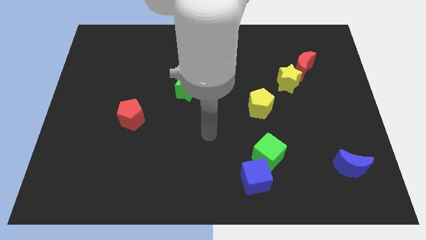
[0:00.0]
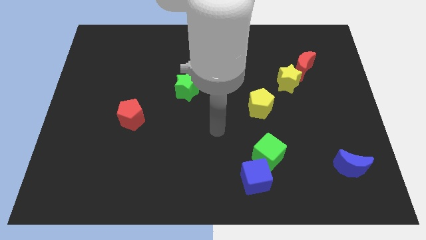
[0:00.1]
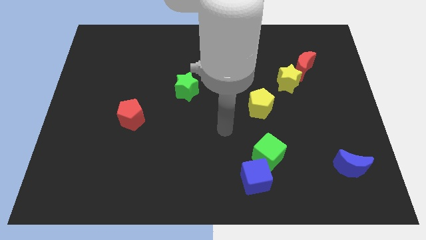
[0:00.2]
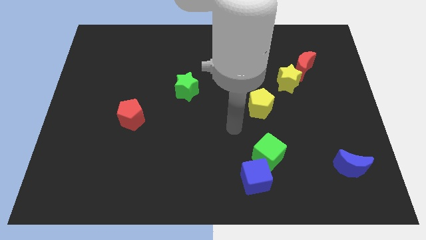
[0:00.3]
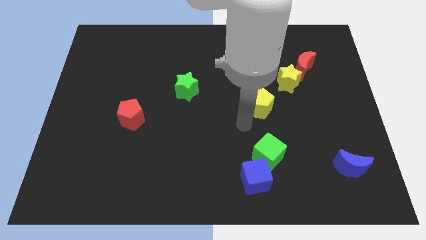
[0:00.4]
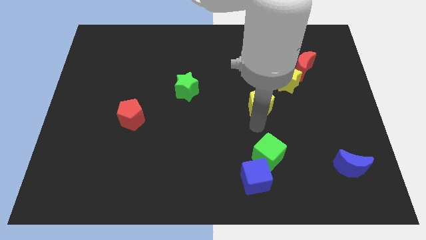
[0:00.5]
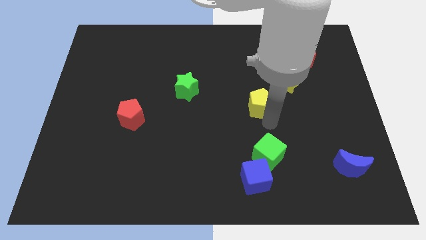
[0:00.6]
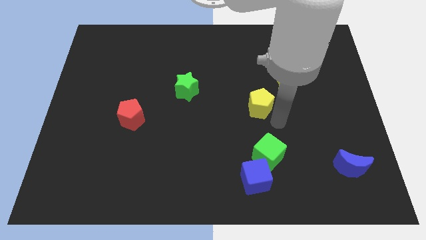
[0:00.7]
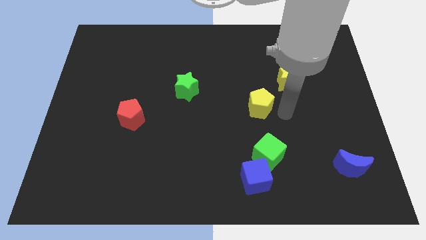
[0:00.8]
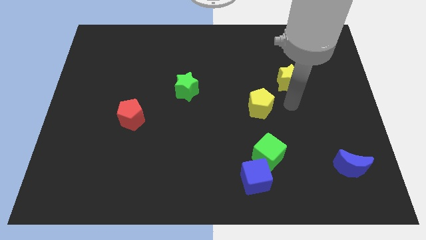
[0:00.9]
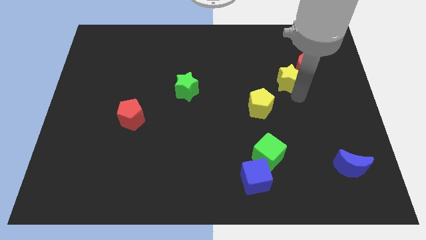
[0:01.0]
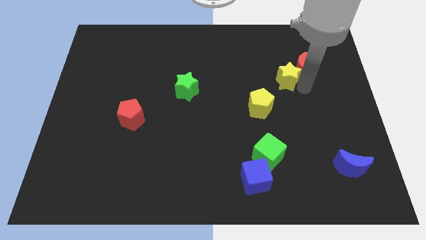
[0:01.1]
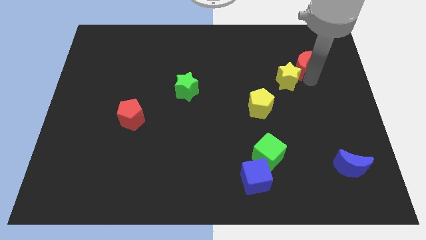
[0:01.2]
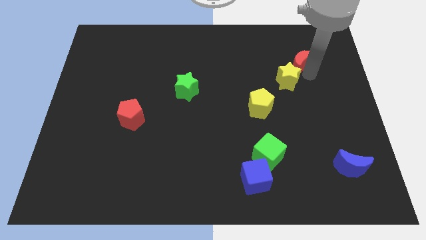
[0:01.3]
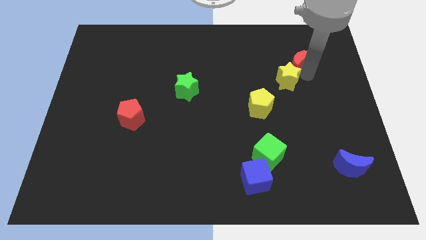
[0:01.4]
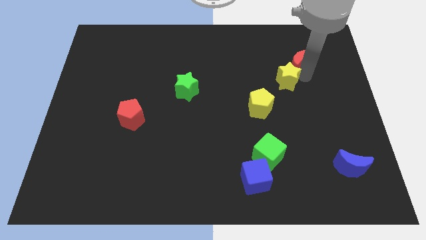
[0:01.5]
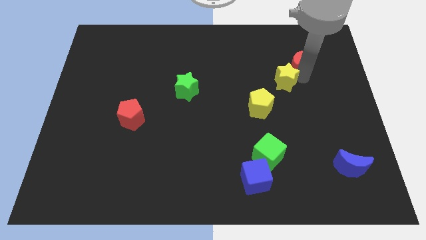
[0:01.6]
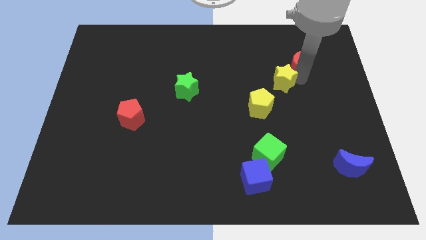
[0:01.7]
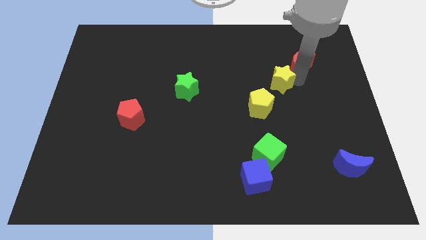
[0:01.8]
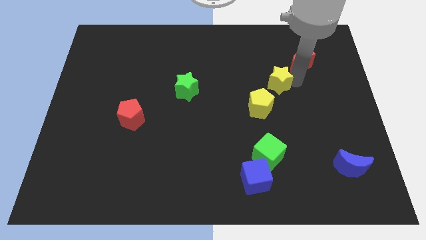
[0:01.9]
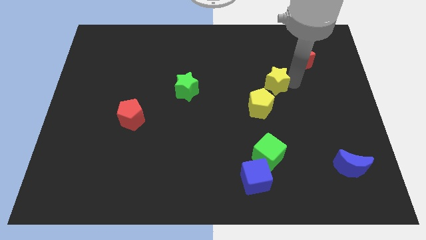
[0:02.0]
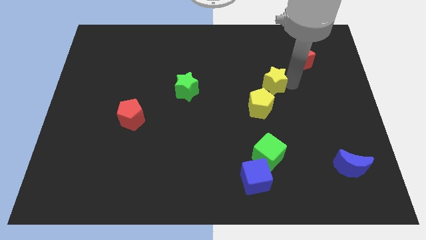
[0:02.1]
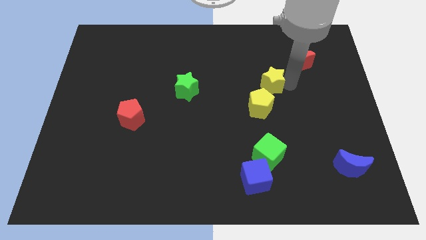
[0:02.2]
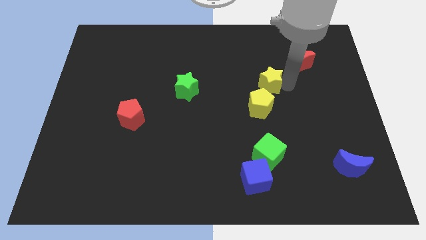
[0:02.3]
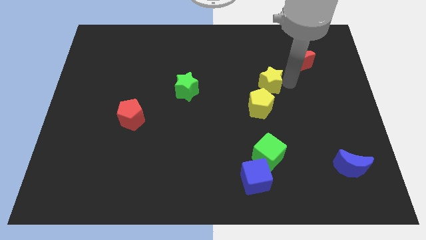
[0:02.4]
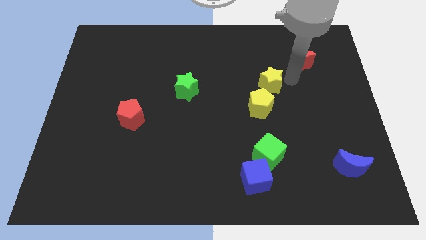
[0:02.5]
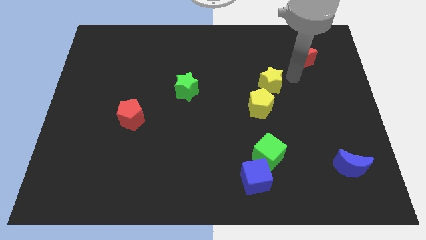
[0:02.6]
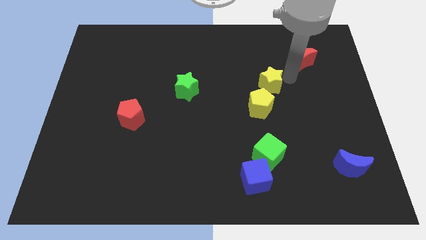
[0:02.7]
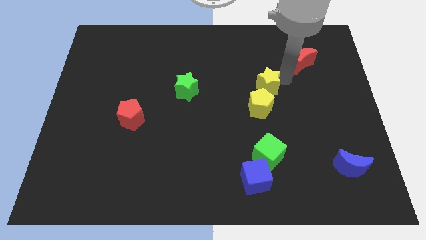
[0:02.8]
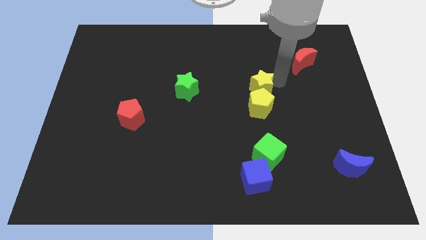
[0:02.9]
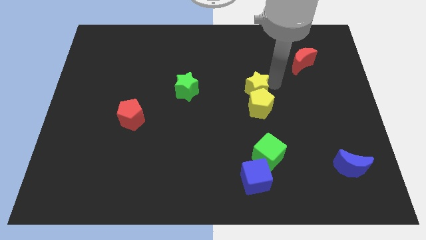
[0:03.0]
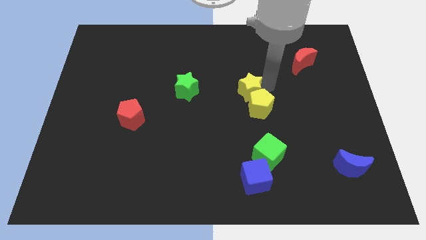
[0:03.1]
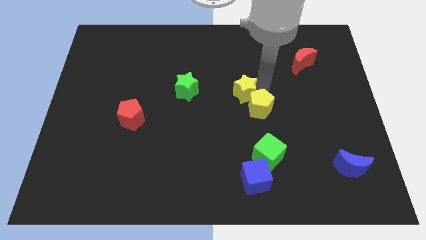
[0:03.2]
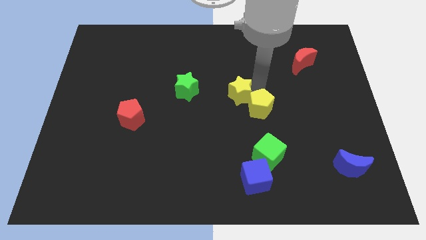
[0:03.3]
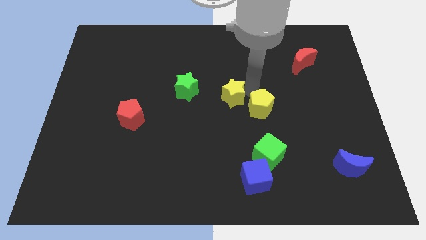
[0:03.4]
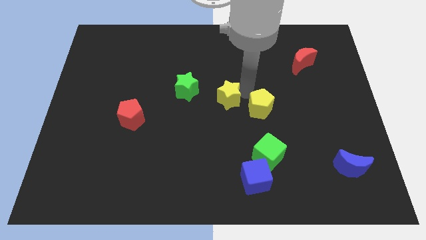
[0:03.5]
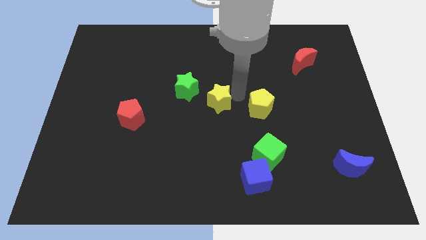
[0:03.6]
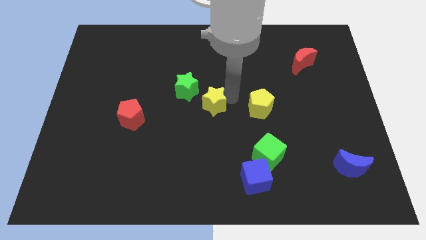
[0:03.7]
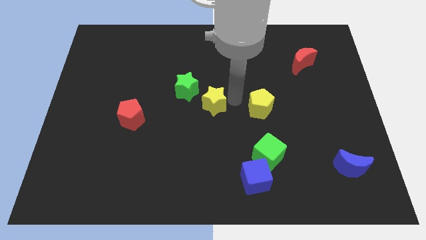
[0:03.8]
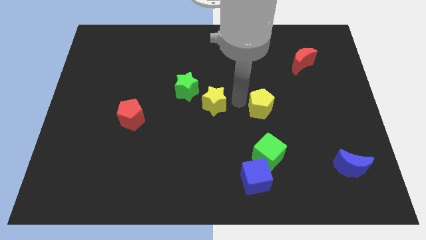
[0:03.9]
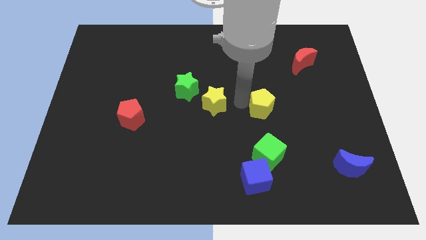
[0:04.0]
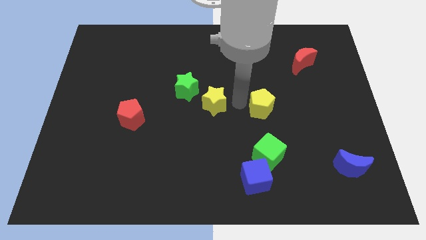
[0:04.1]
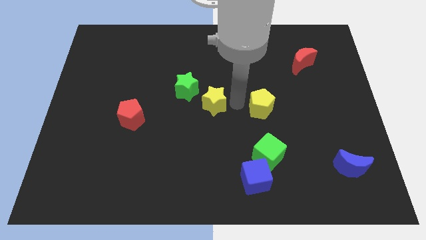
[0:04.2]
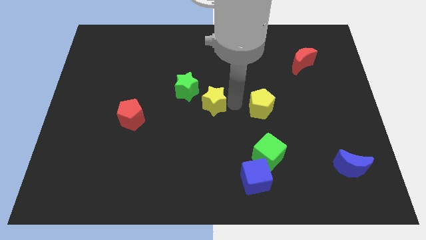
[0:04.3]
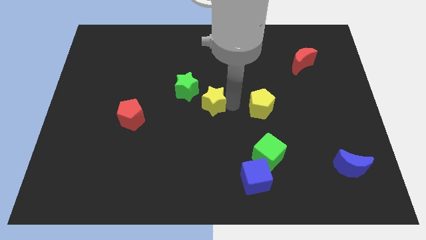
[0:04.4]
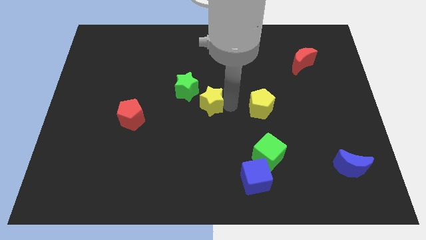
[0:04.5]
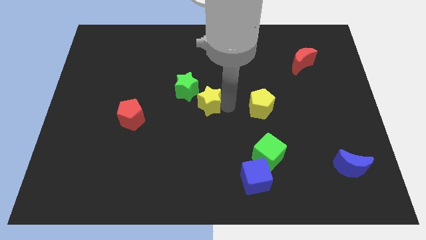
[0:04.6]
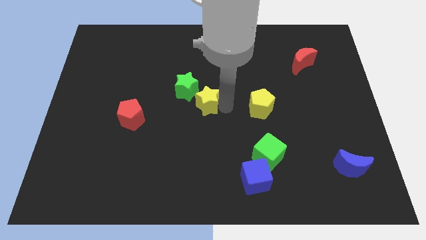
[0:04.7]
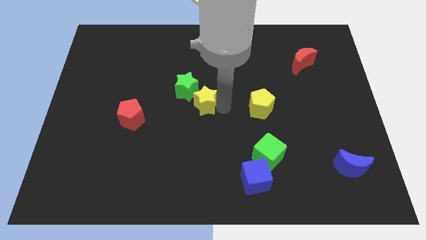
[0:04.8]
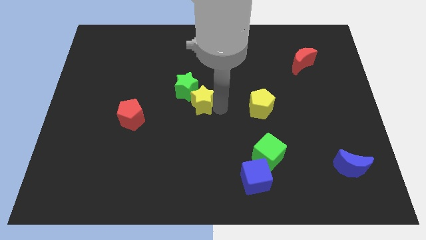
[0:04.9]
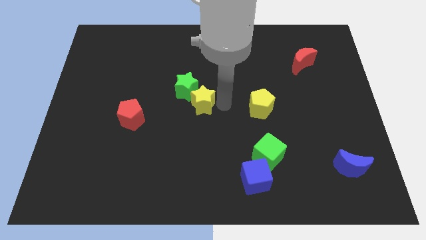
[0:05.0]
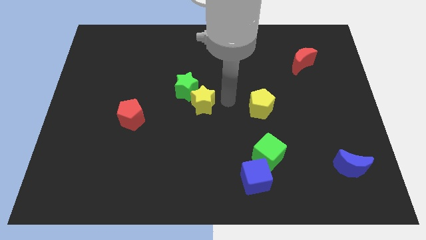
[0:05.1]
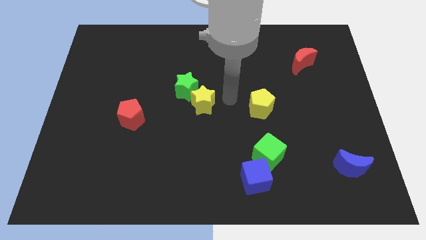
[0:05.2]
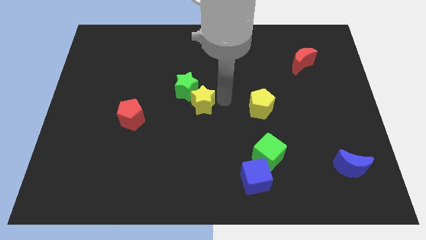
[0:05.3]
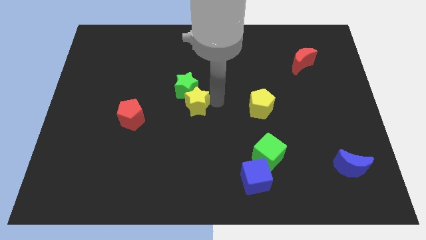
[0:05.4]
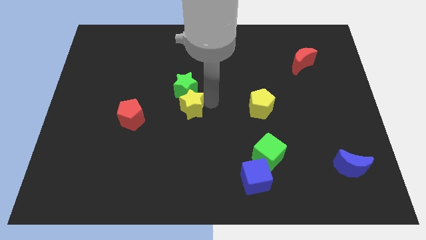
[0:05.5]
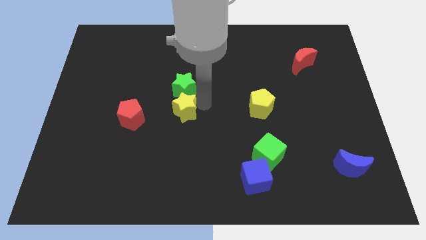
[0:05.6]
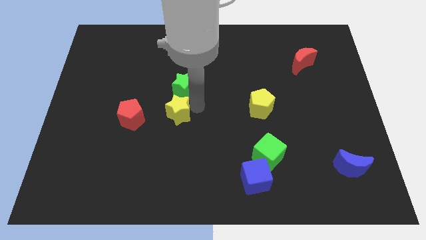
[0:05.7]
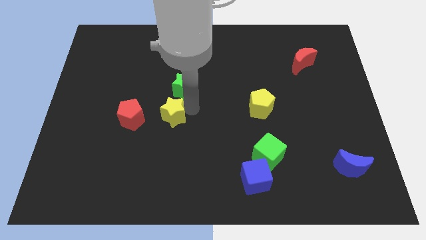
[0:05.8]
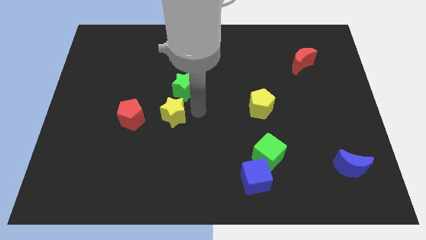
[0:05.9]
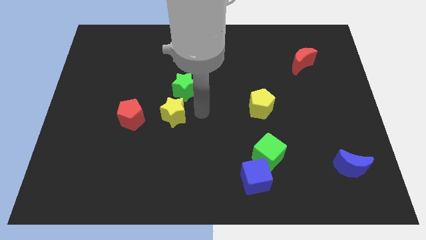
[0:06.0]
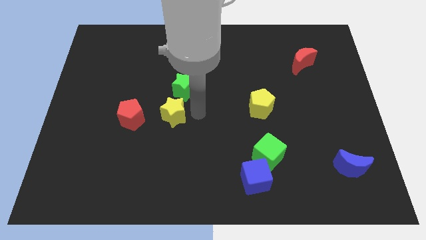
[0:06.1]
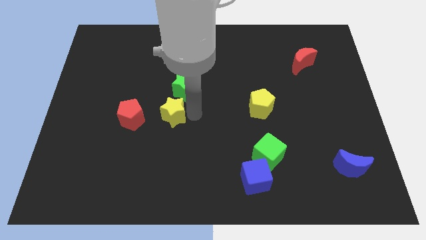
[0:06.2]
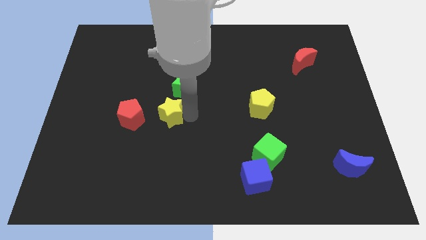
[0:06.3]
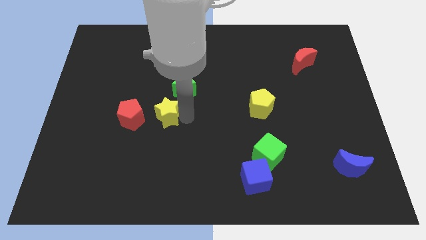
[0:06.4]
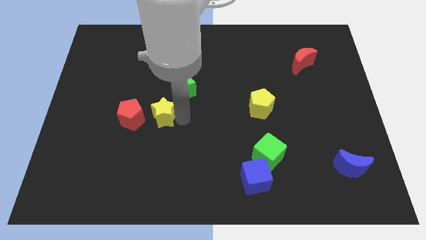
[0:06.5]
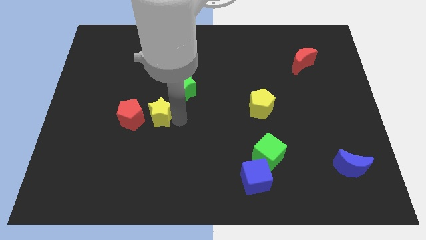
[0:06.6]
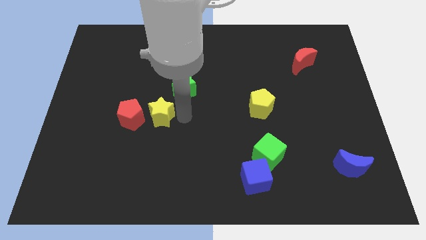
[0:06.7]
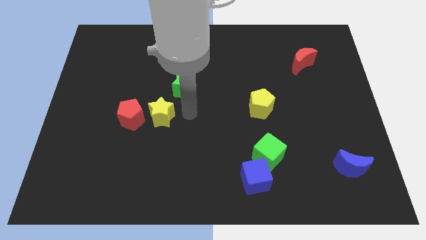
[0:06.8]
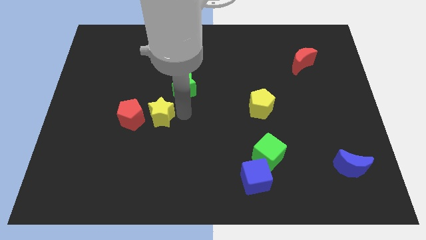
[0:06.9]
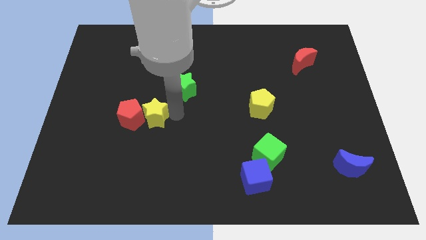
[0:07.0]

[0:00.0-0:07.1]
move the yellow star next to the red pentagon

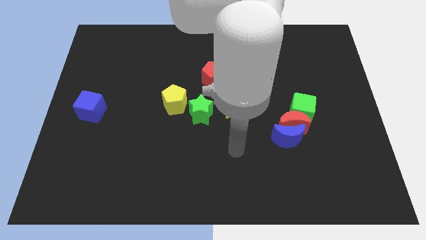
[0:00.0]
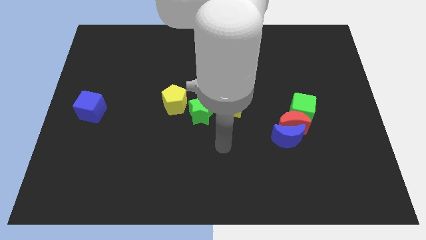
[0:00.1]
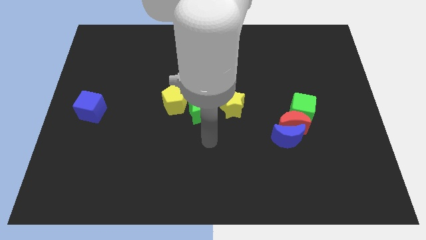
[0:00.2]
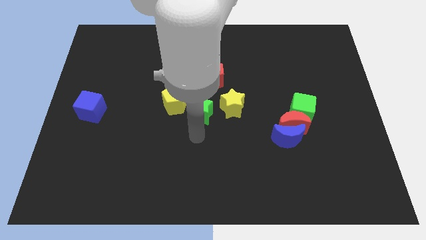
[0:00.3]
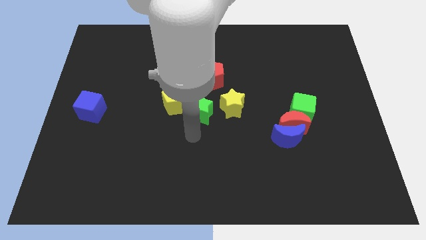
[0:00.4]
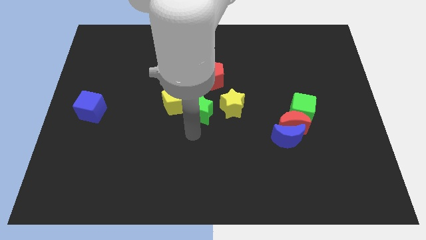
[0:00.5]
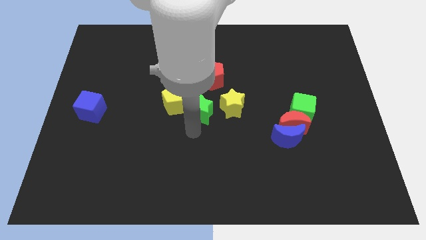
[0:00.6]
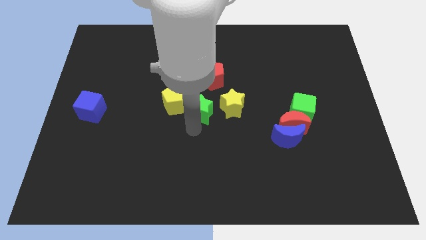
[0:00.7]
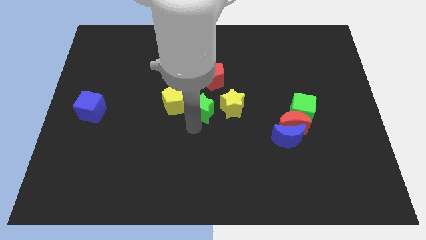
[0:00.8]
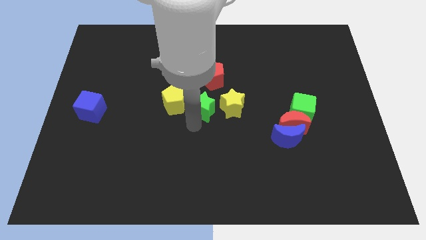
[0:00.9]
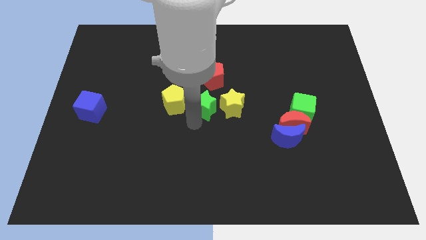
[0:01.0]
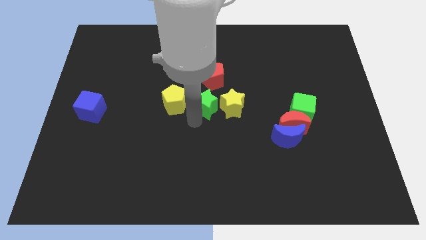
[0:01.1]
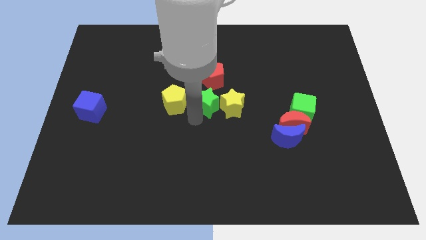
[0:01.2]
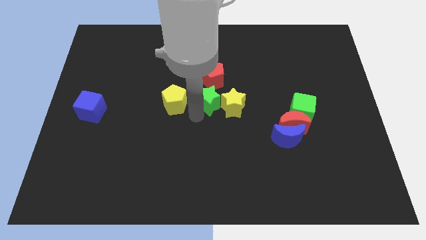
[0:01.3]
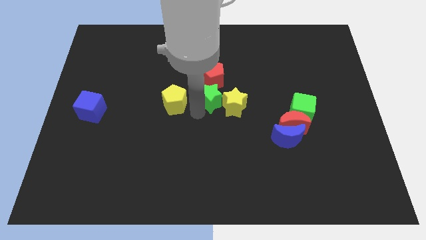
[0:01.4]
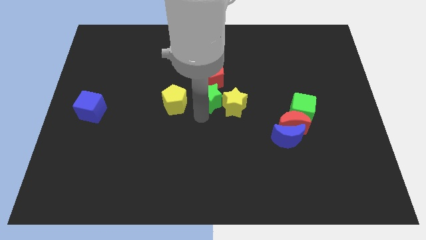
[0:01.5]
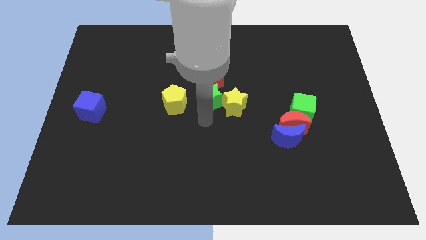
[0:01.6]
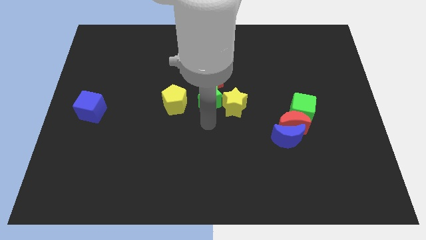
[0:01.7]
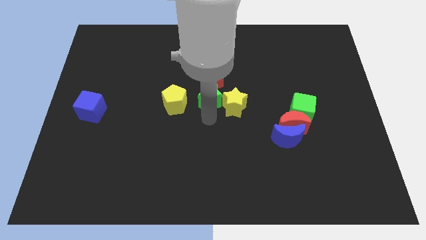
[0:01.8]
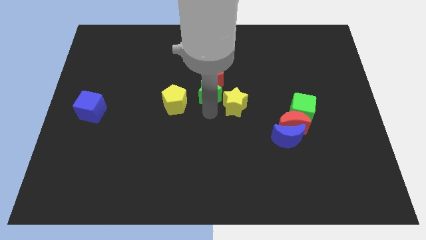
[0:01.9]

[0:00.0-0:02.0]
slide the green star close to the red pentagon
